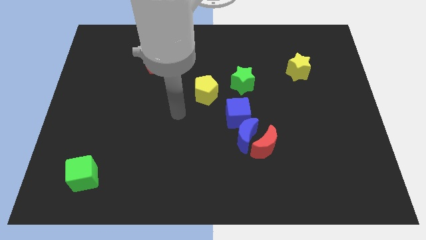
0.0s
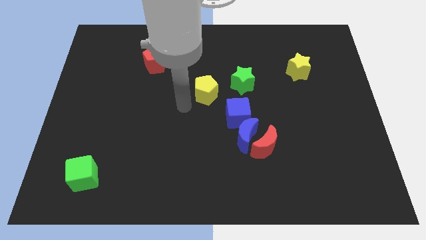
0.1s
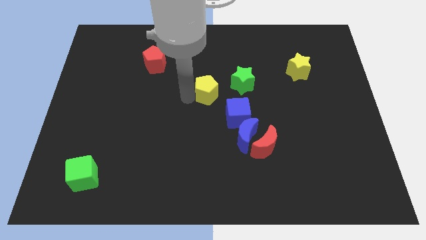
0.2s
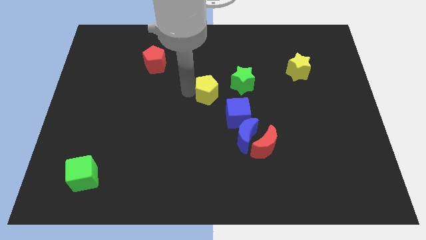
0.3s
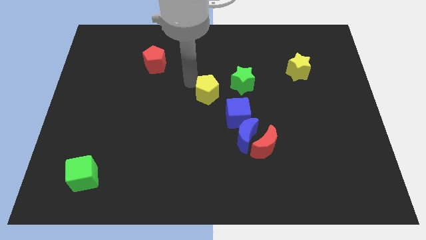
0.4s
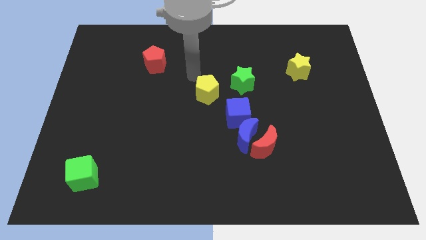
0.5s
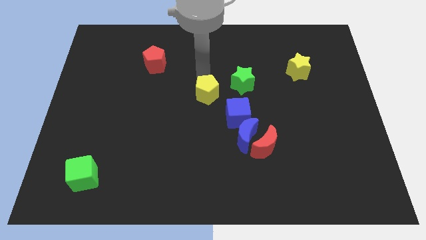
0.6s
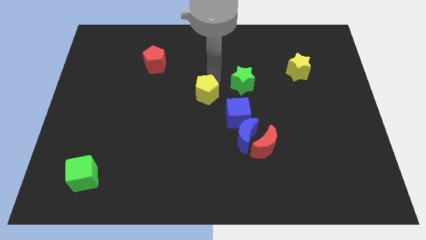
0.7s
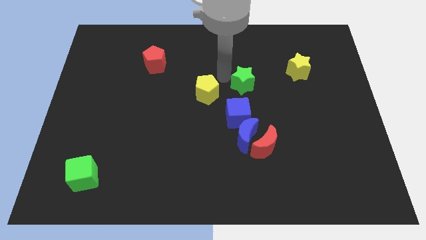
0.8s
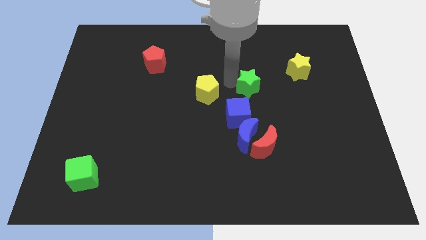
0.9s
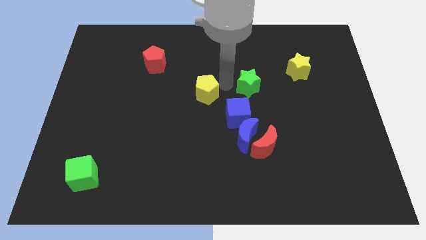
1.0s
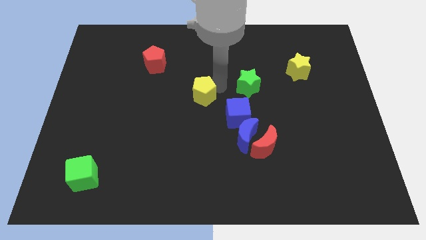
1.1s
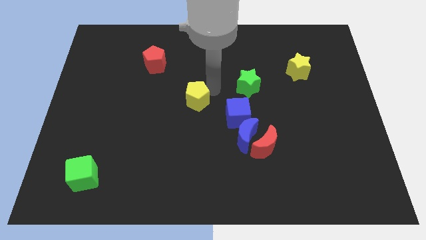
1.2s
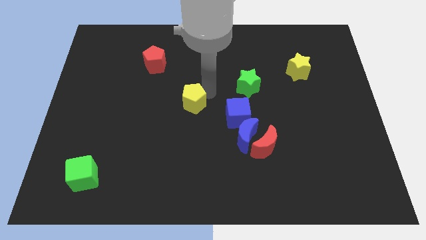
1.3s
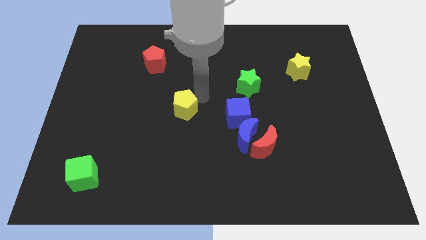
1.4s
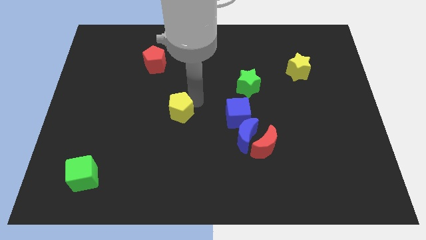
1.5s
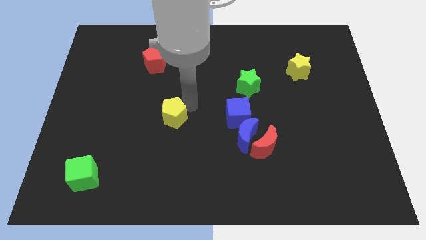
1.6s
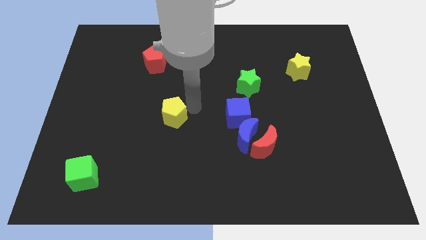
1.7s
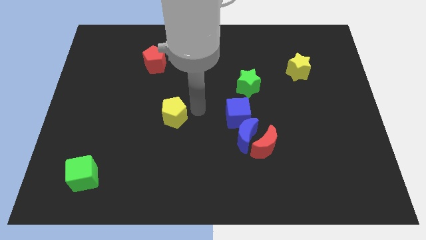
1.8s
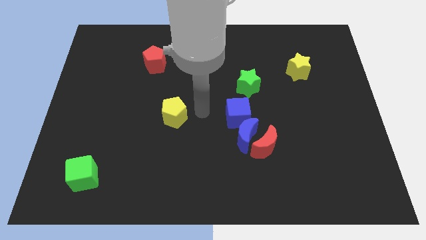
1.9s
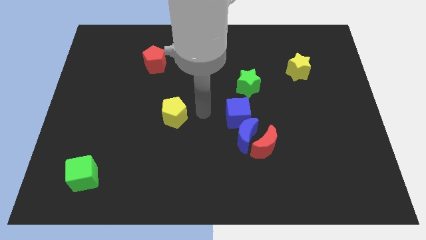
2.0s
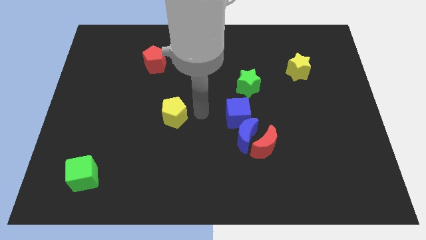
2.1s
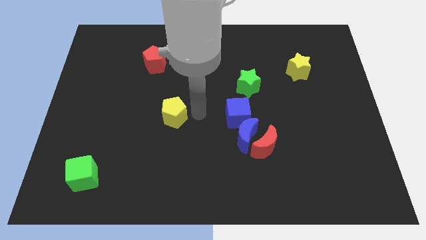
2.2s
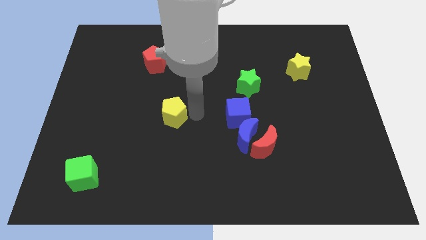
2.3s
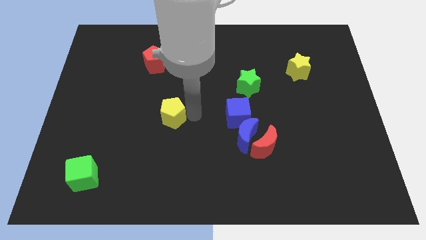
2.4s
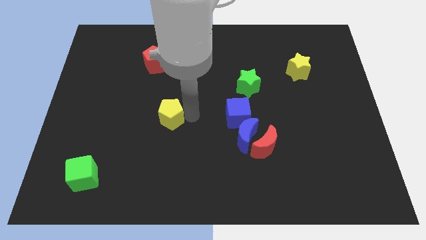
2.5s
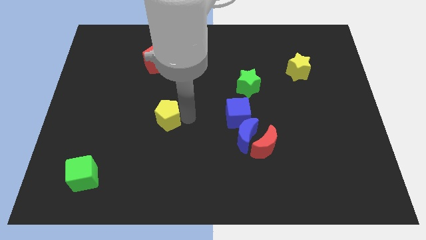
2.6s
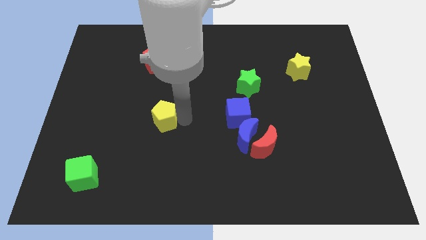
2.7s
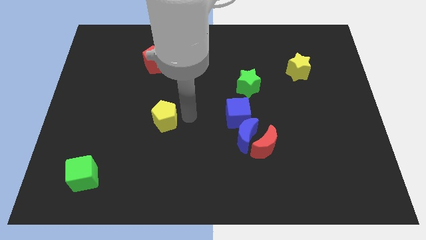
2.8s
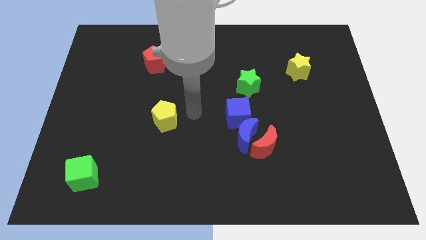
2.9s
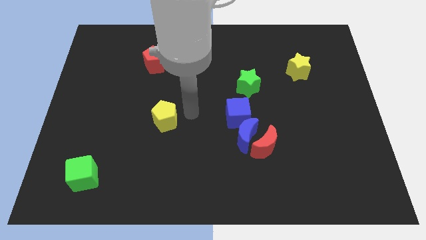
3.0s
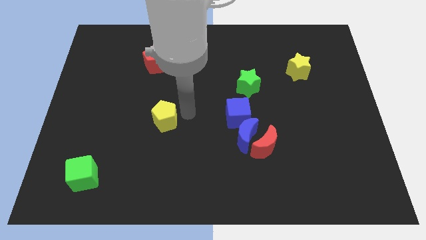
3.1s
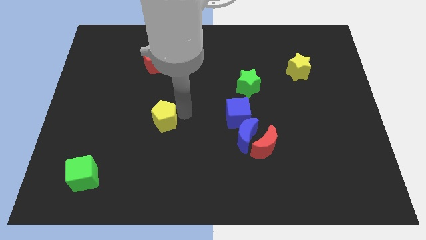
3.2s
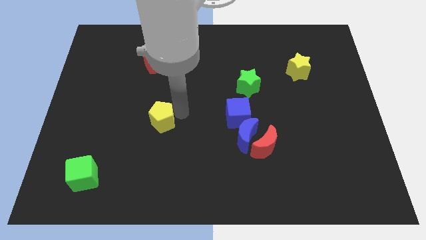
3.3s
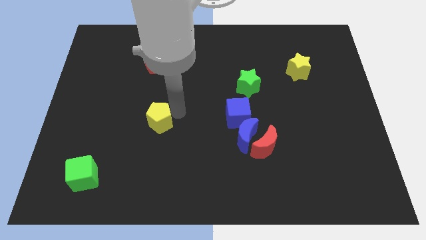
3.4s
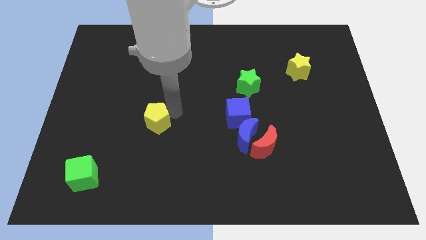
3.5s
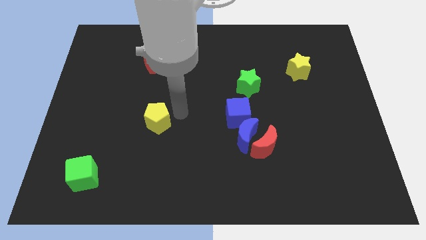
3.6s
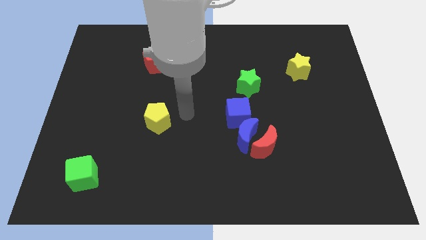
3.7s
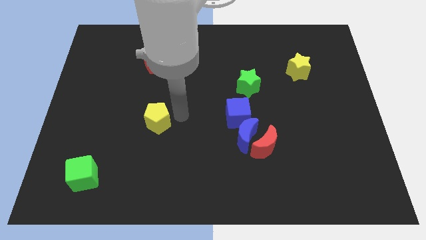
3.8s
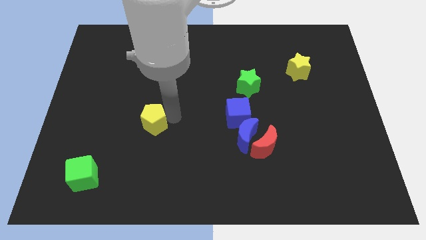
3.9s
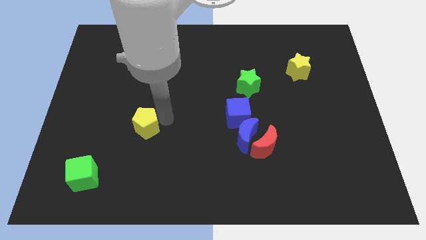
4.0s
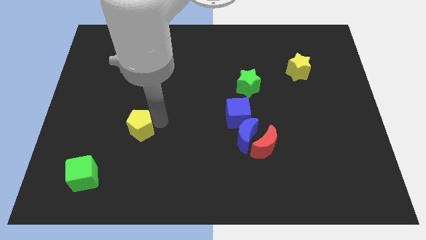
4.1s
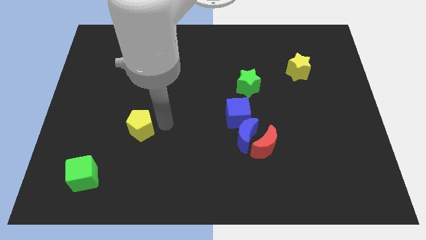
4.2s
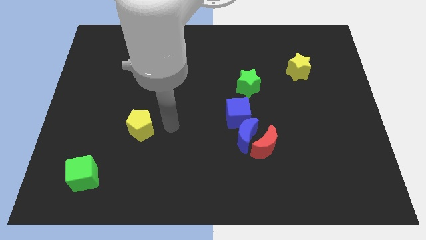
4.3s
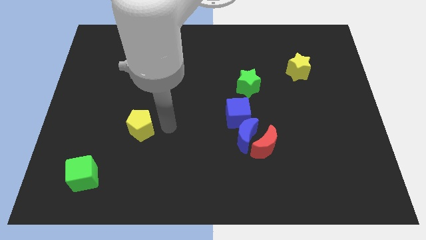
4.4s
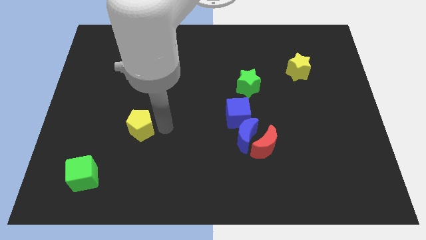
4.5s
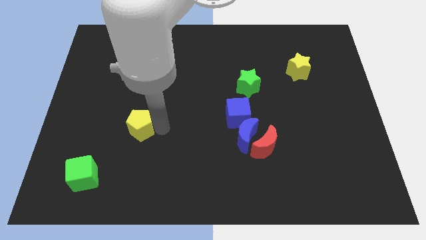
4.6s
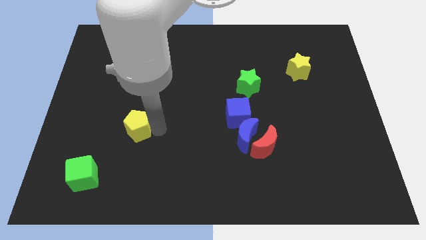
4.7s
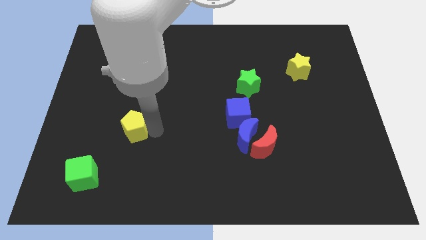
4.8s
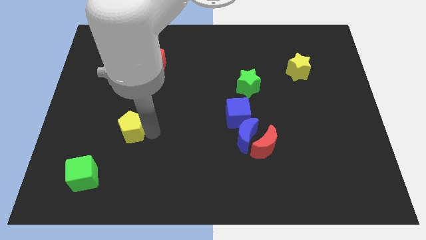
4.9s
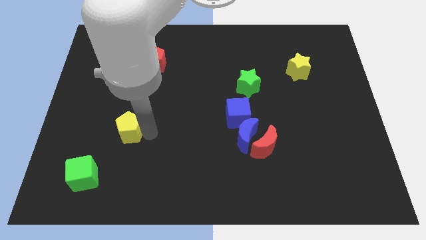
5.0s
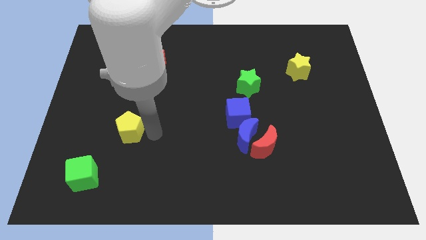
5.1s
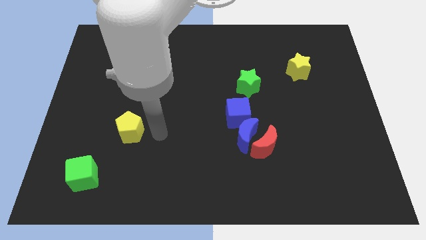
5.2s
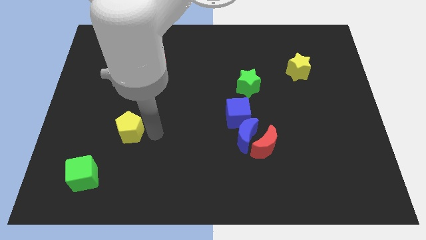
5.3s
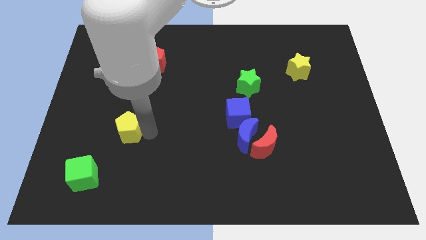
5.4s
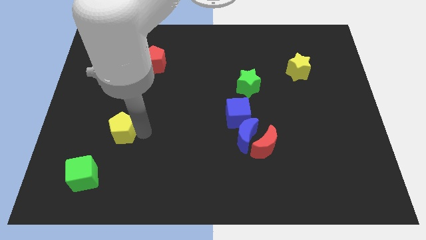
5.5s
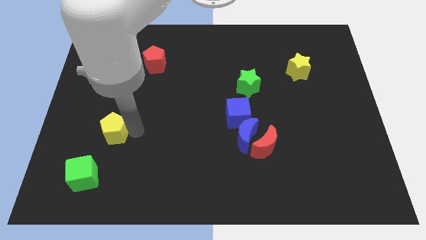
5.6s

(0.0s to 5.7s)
slide the yellow pentagon to the top of the green cube
